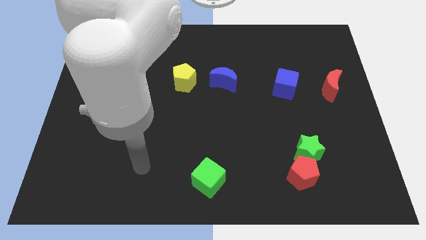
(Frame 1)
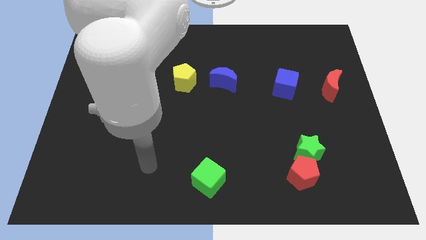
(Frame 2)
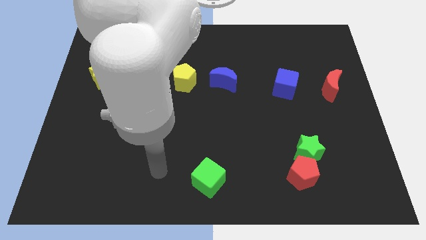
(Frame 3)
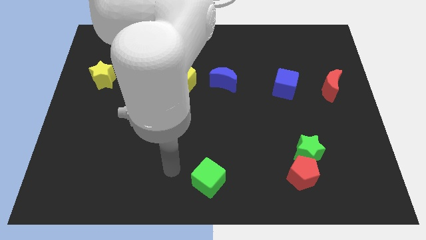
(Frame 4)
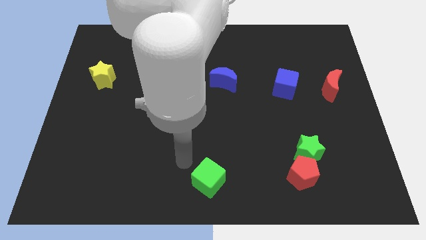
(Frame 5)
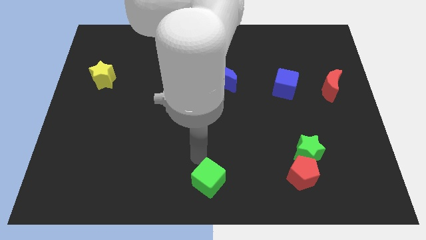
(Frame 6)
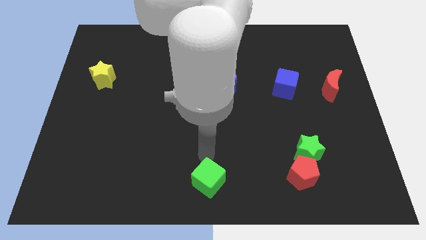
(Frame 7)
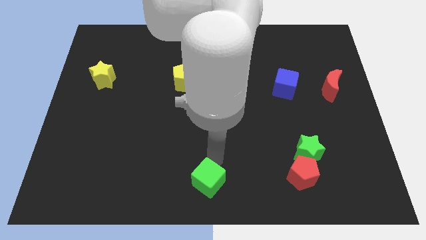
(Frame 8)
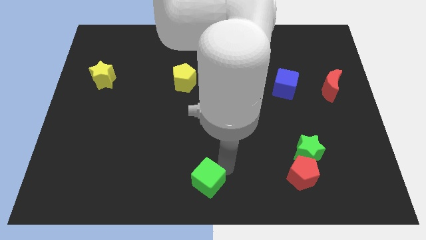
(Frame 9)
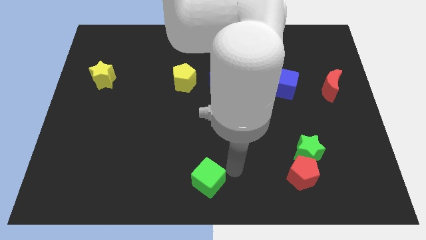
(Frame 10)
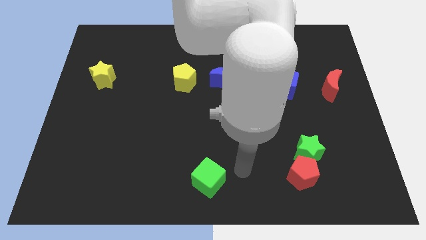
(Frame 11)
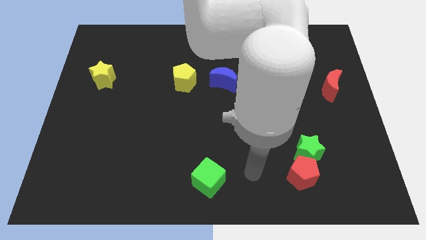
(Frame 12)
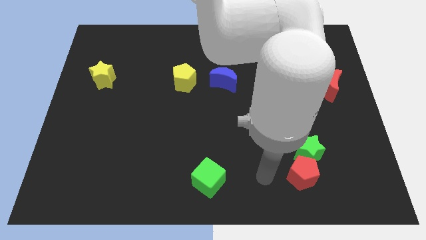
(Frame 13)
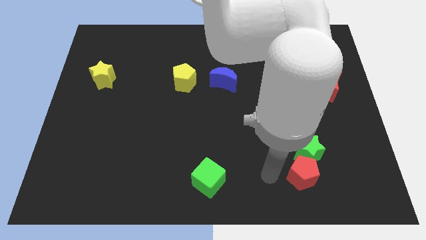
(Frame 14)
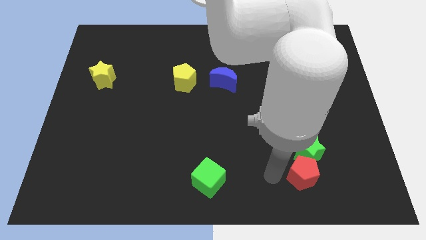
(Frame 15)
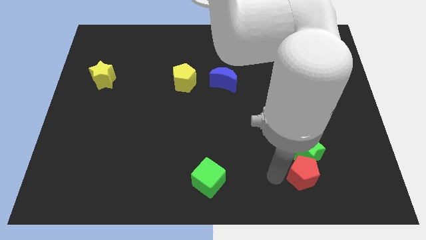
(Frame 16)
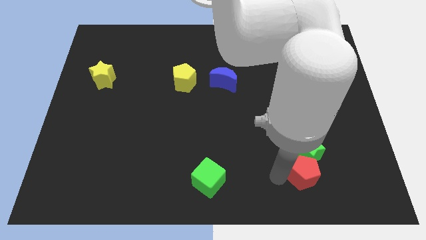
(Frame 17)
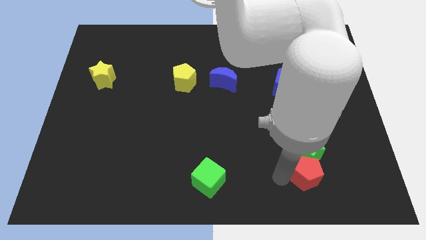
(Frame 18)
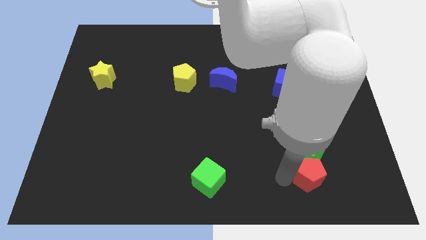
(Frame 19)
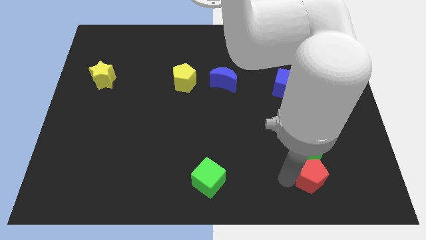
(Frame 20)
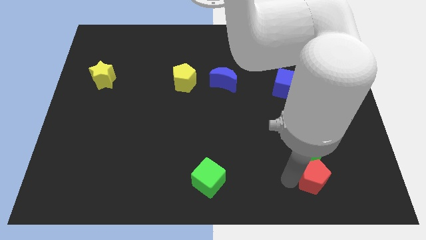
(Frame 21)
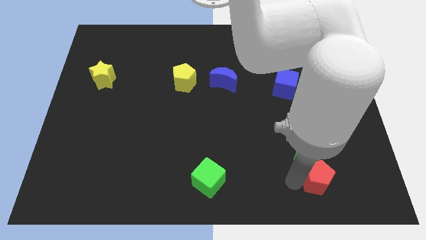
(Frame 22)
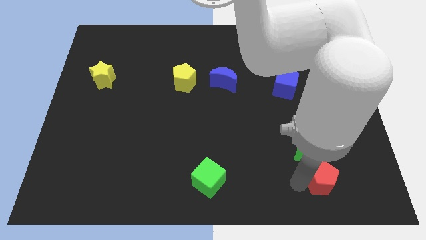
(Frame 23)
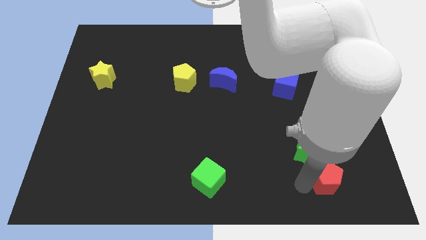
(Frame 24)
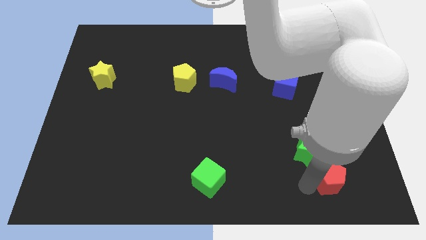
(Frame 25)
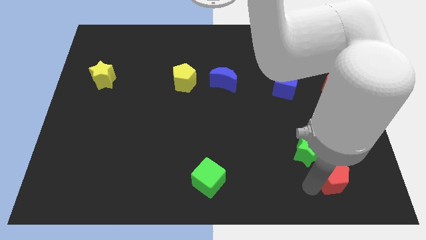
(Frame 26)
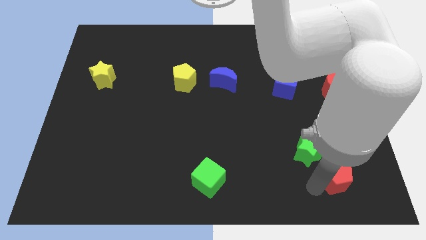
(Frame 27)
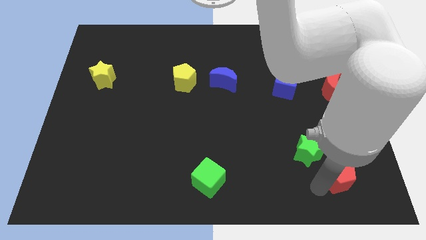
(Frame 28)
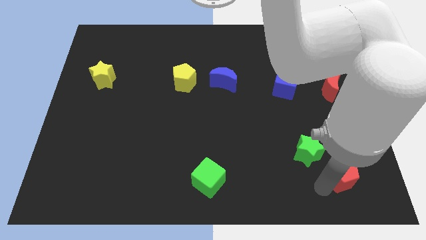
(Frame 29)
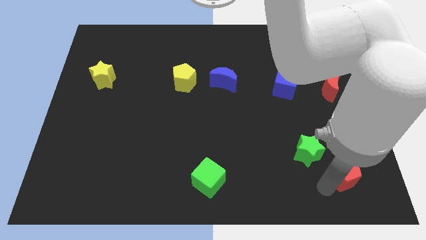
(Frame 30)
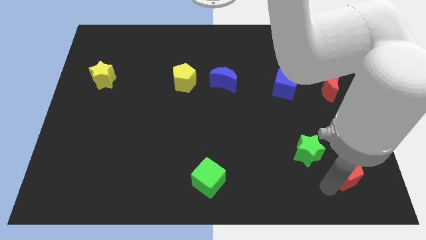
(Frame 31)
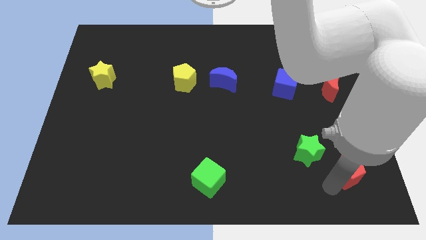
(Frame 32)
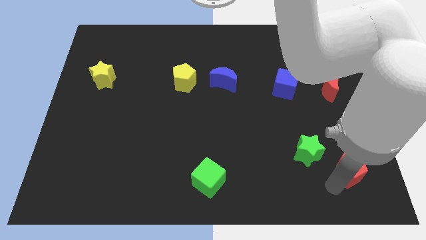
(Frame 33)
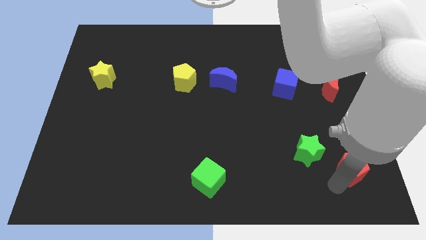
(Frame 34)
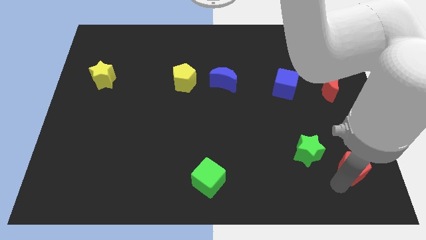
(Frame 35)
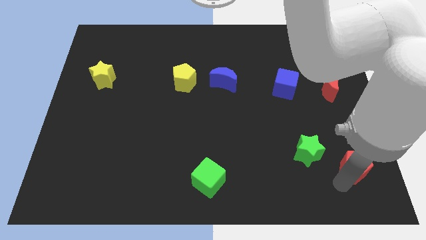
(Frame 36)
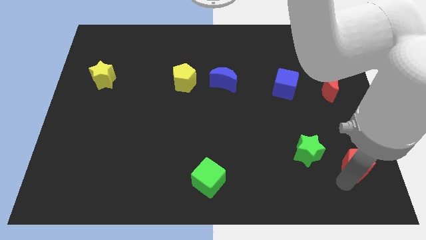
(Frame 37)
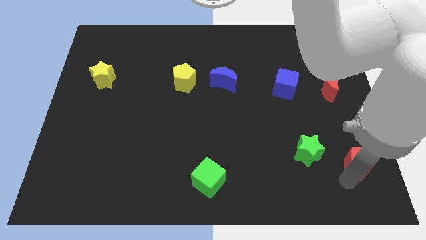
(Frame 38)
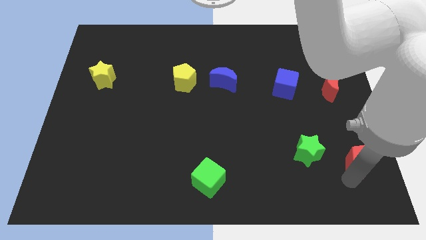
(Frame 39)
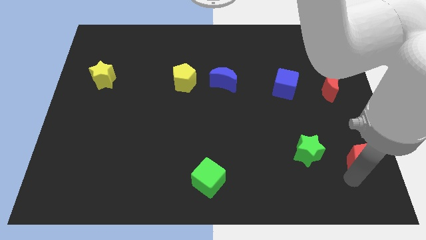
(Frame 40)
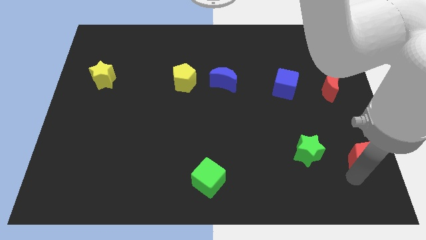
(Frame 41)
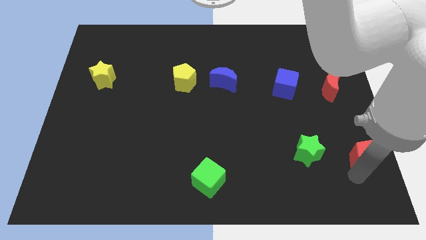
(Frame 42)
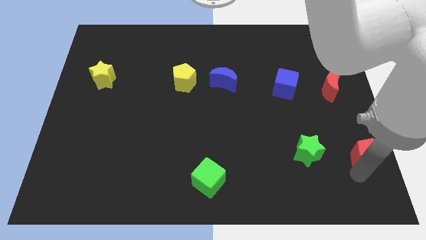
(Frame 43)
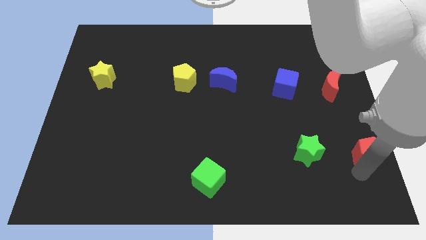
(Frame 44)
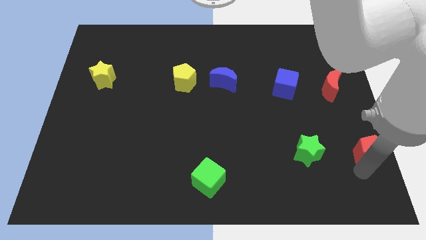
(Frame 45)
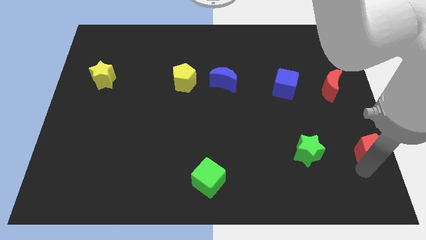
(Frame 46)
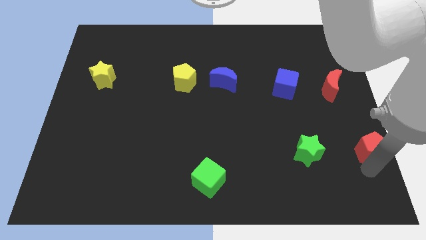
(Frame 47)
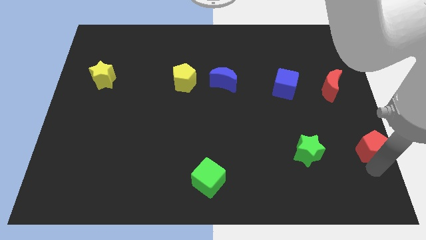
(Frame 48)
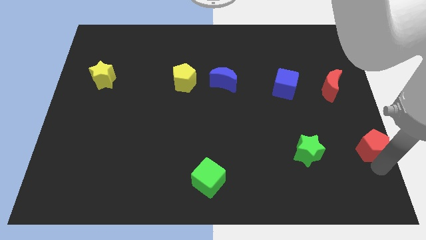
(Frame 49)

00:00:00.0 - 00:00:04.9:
slide the red pentagon to the right side of the board

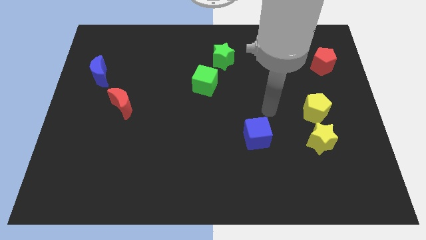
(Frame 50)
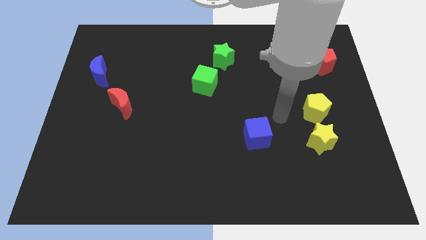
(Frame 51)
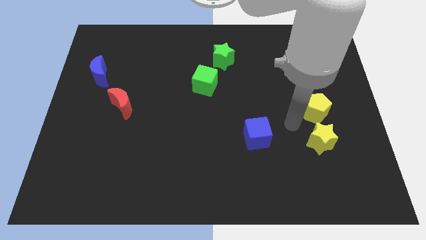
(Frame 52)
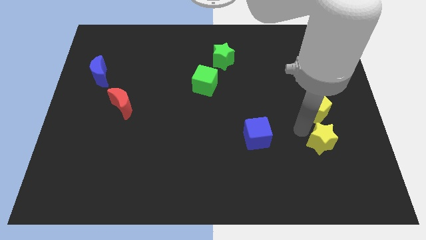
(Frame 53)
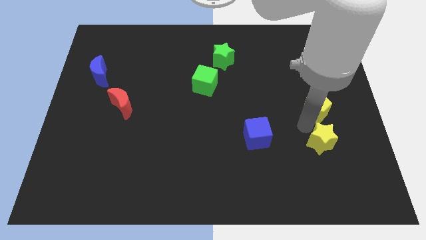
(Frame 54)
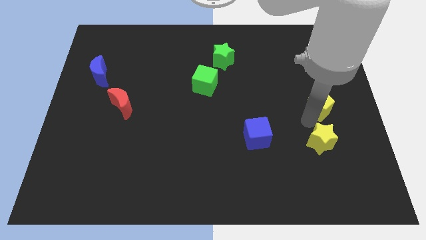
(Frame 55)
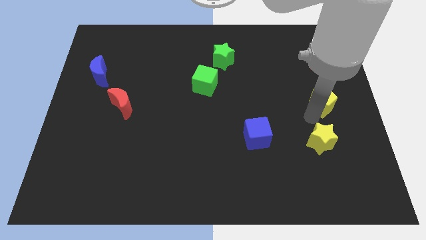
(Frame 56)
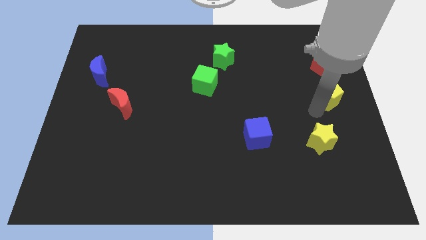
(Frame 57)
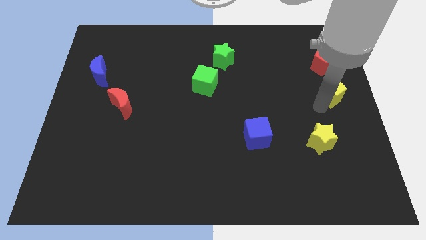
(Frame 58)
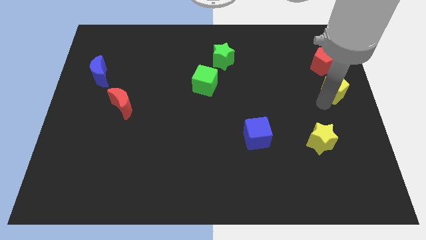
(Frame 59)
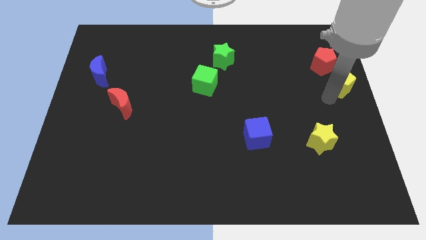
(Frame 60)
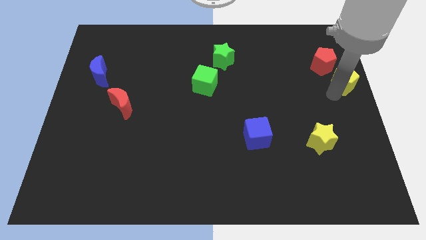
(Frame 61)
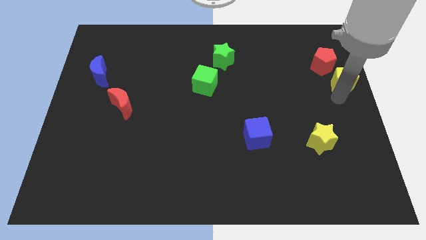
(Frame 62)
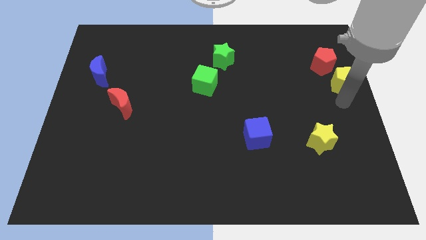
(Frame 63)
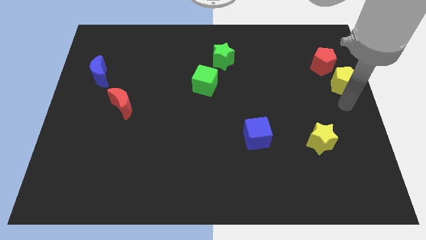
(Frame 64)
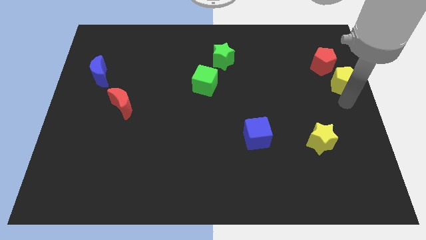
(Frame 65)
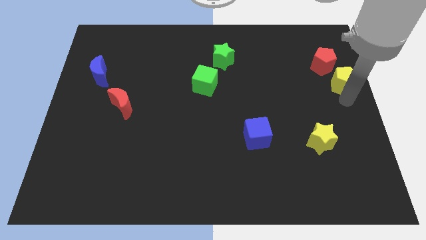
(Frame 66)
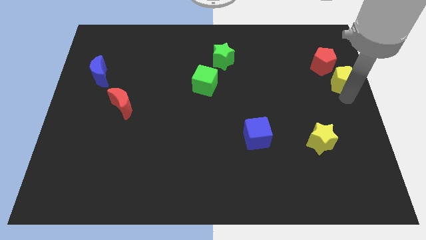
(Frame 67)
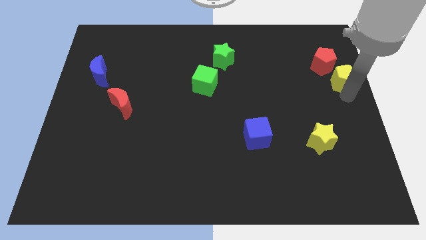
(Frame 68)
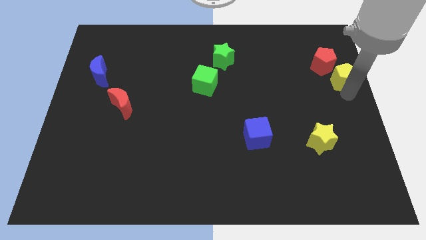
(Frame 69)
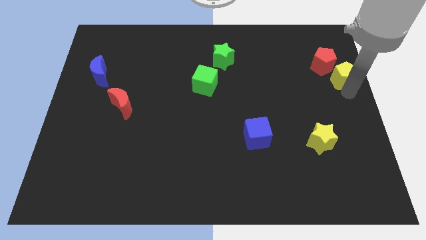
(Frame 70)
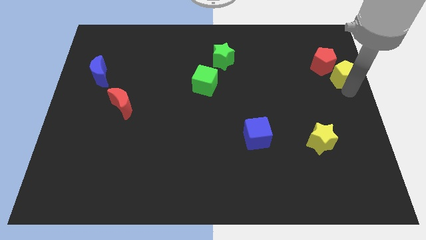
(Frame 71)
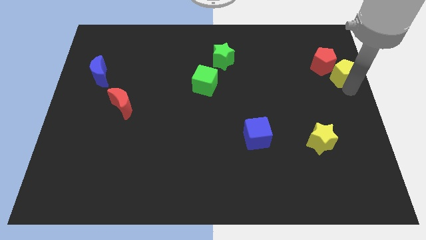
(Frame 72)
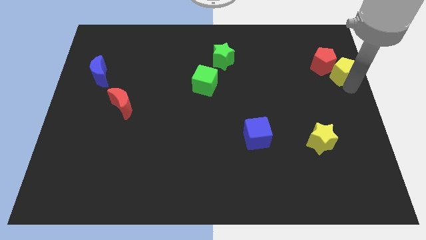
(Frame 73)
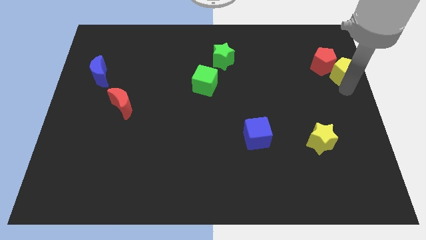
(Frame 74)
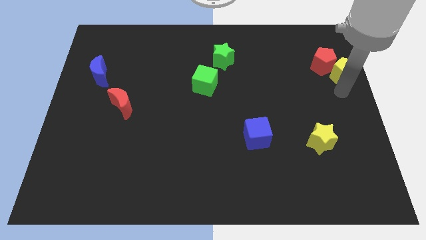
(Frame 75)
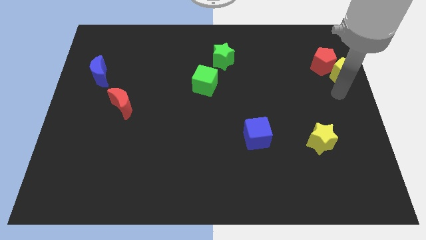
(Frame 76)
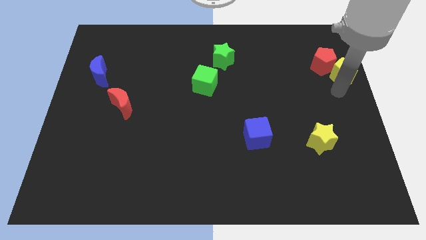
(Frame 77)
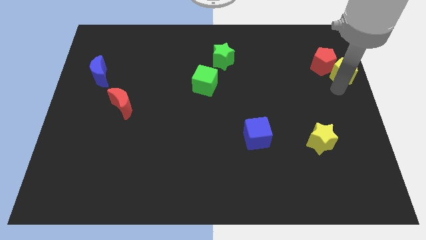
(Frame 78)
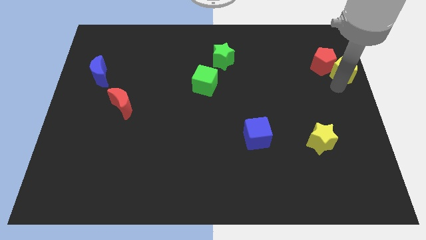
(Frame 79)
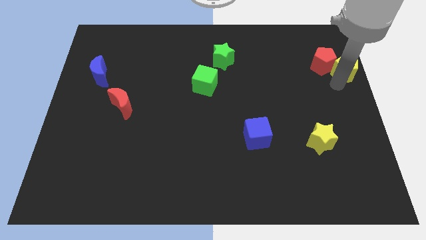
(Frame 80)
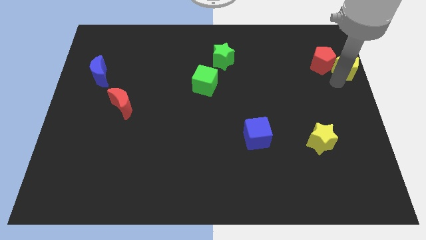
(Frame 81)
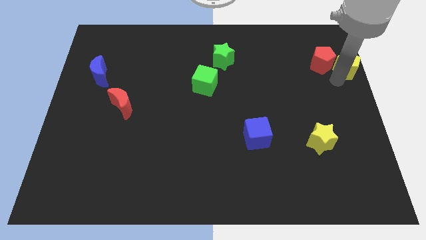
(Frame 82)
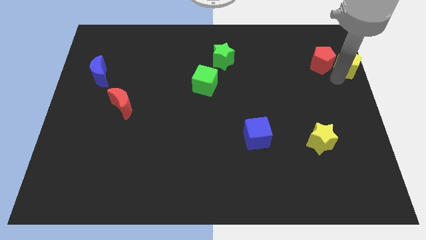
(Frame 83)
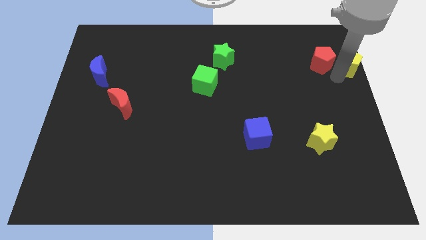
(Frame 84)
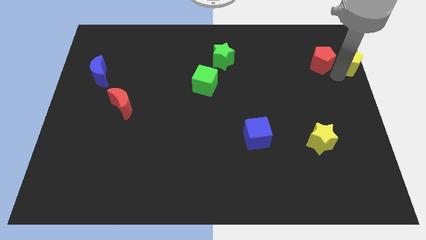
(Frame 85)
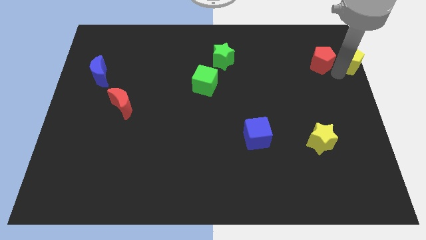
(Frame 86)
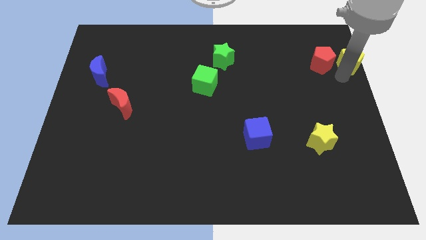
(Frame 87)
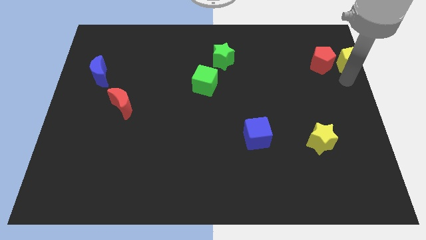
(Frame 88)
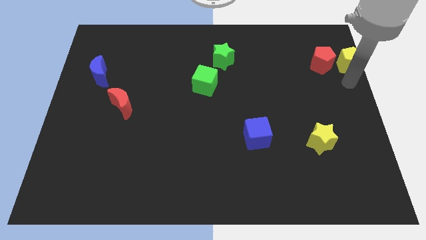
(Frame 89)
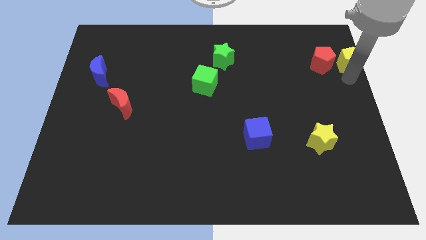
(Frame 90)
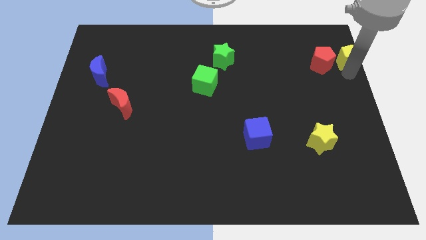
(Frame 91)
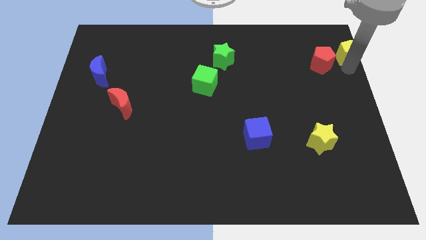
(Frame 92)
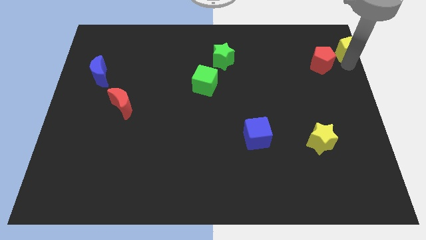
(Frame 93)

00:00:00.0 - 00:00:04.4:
put the yellow pentagon to the upper right corner
